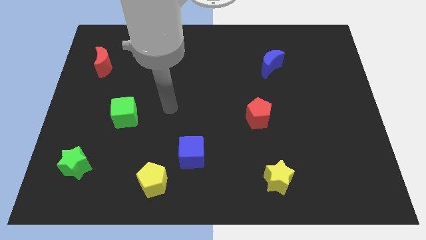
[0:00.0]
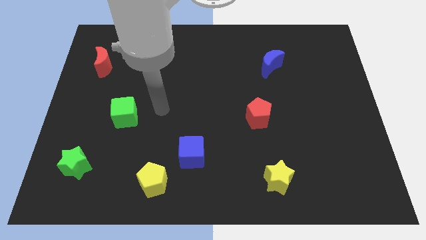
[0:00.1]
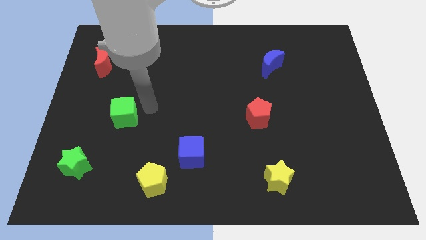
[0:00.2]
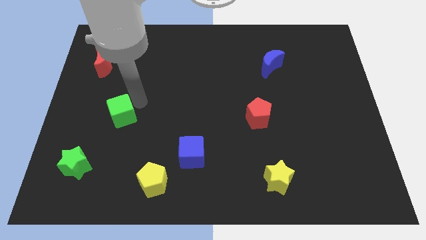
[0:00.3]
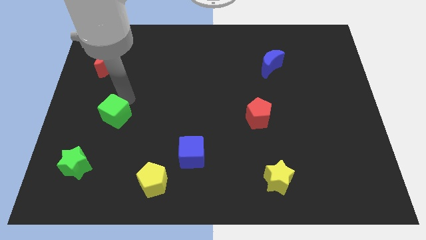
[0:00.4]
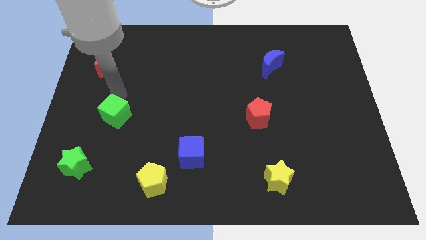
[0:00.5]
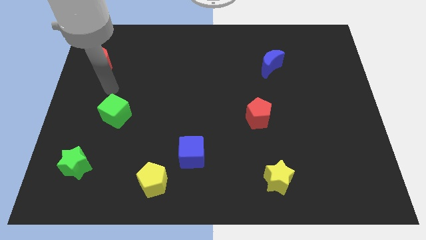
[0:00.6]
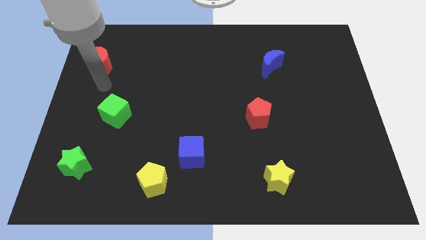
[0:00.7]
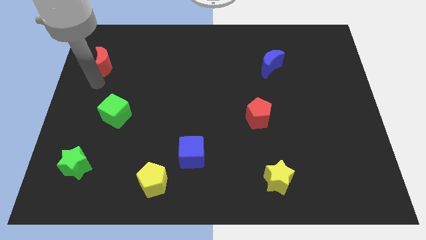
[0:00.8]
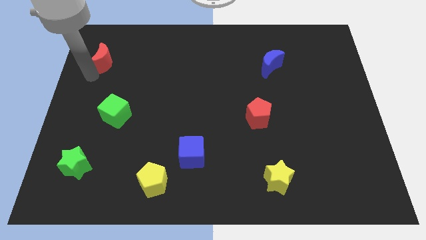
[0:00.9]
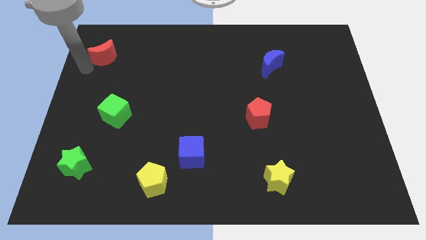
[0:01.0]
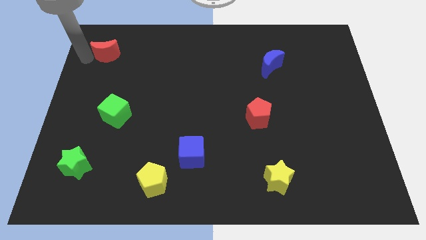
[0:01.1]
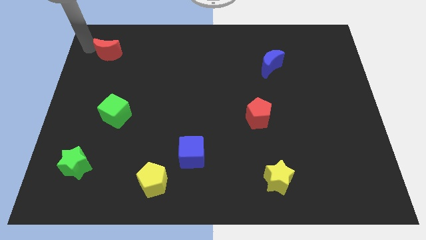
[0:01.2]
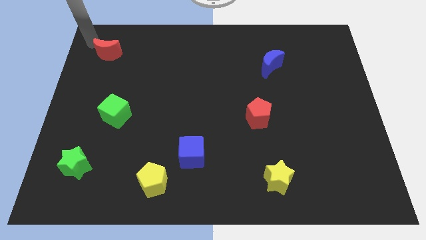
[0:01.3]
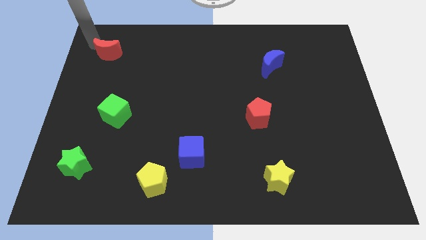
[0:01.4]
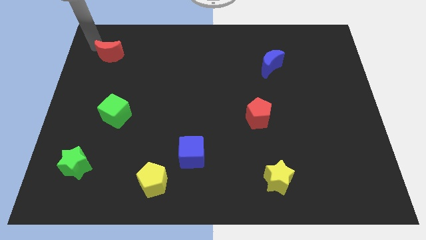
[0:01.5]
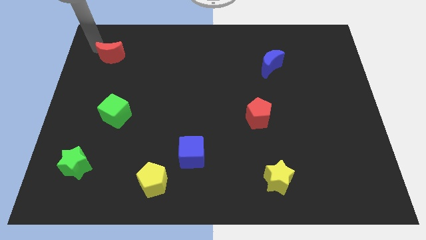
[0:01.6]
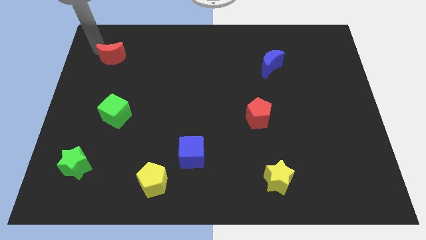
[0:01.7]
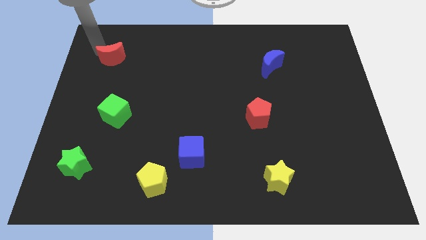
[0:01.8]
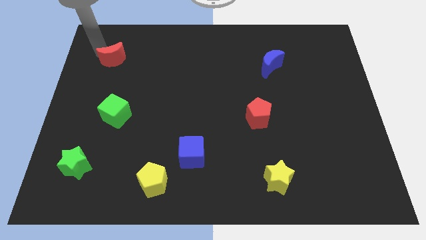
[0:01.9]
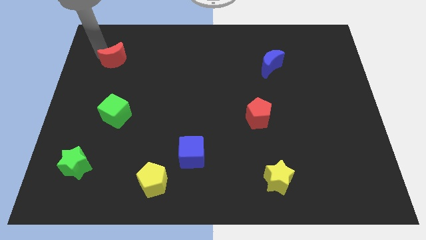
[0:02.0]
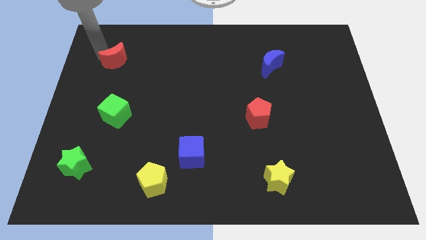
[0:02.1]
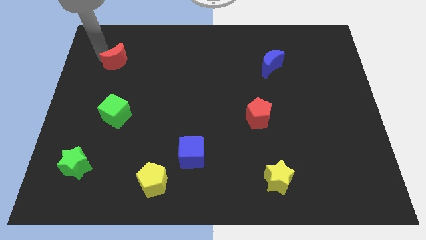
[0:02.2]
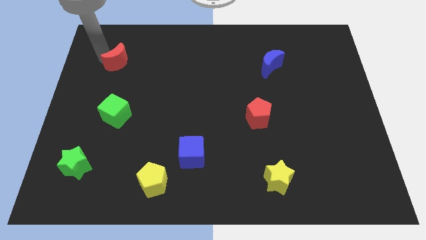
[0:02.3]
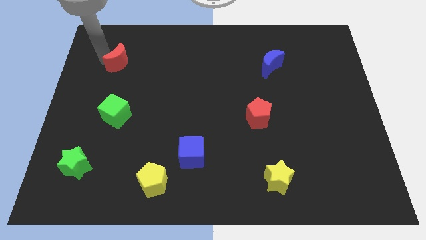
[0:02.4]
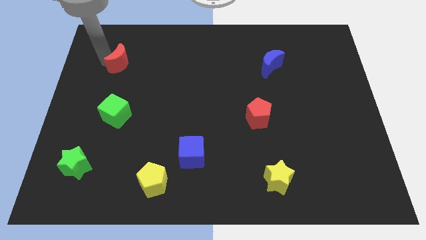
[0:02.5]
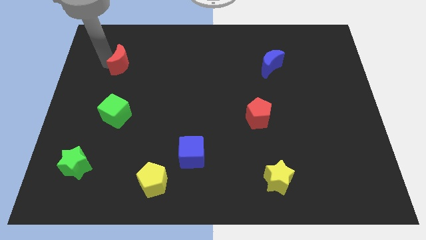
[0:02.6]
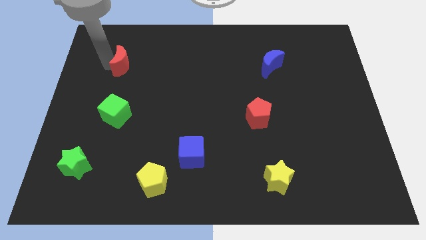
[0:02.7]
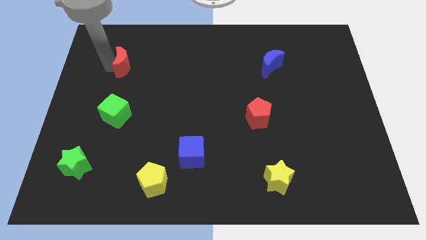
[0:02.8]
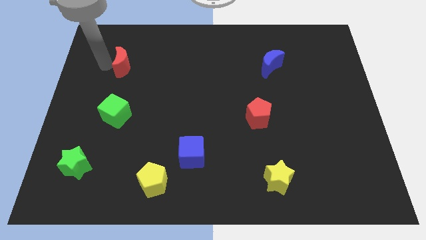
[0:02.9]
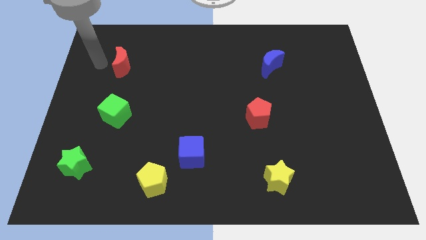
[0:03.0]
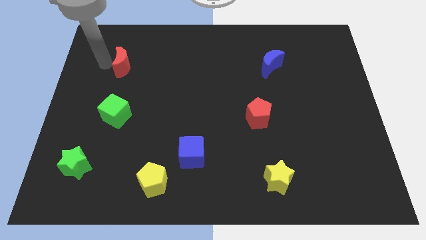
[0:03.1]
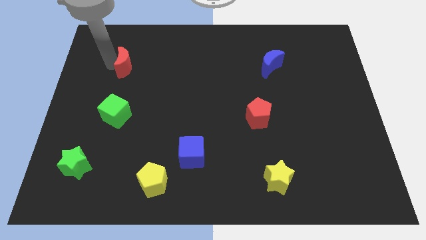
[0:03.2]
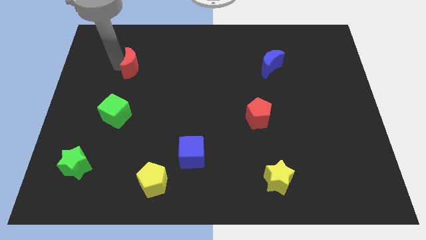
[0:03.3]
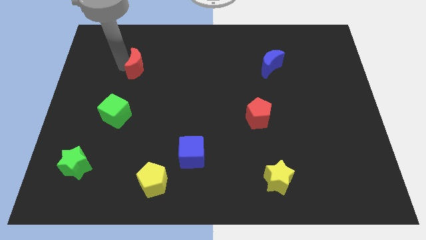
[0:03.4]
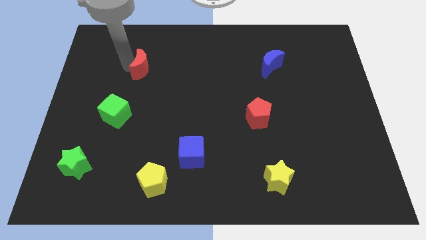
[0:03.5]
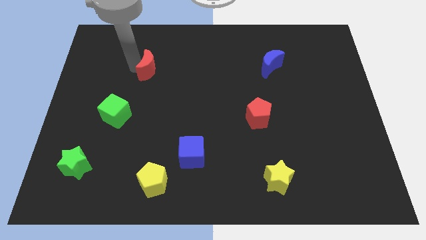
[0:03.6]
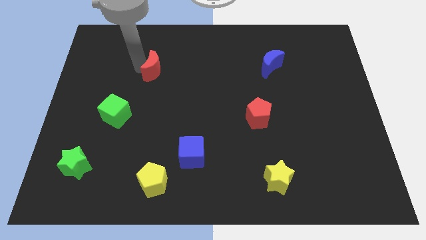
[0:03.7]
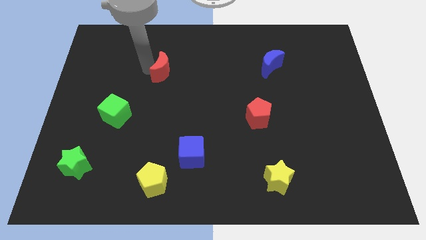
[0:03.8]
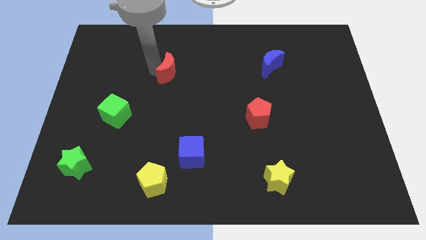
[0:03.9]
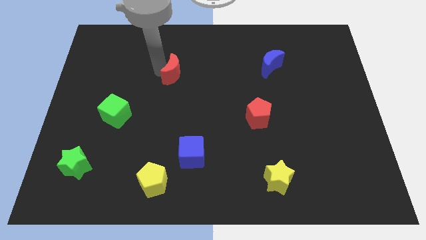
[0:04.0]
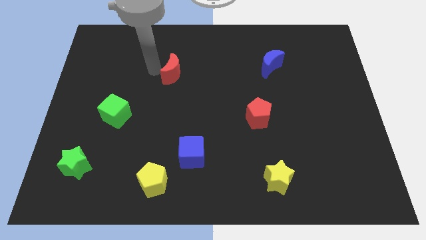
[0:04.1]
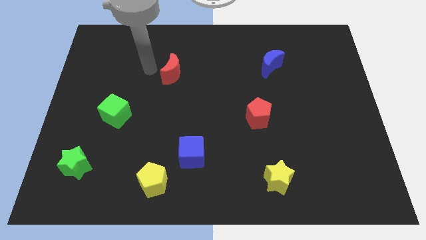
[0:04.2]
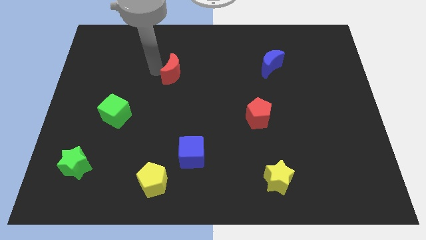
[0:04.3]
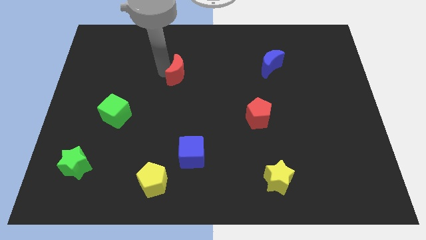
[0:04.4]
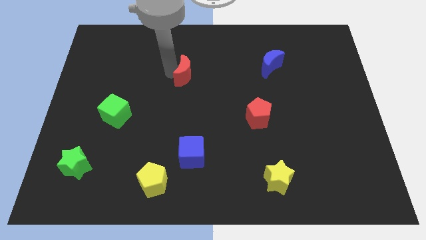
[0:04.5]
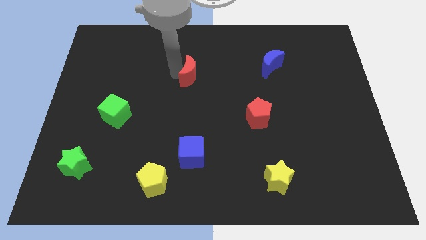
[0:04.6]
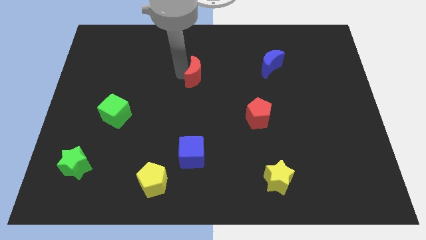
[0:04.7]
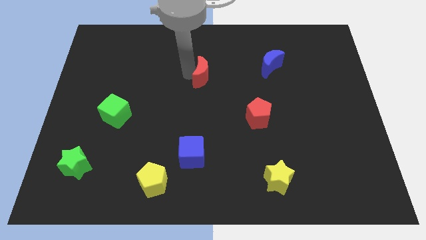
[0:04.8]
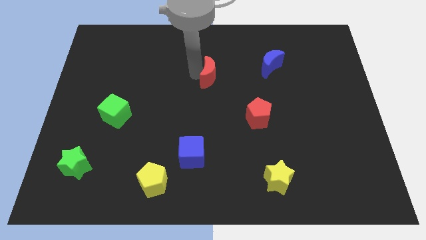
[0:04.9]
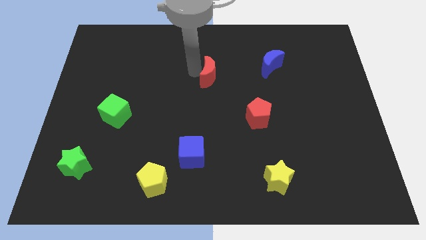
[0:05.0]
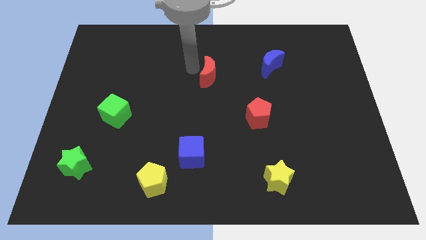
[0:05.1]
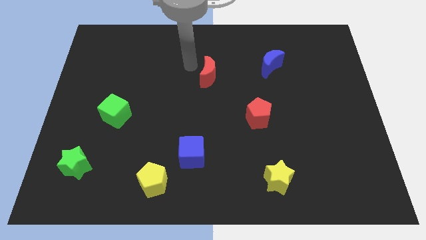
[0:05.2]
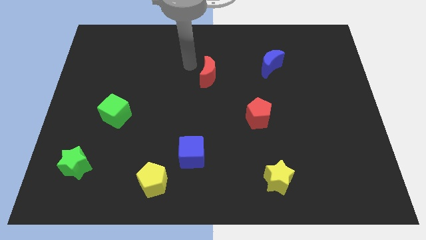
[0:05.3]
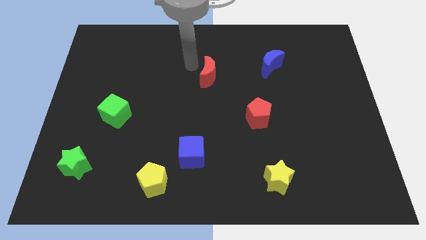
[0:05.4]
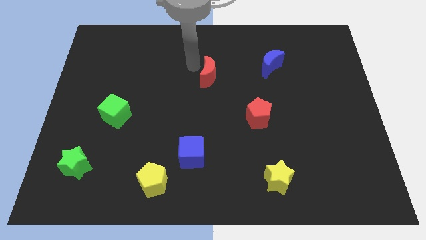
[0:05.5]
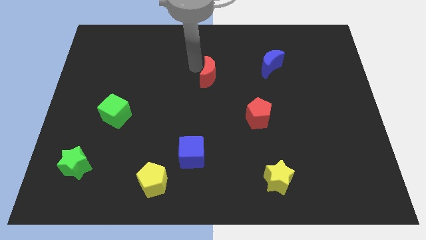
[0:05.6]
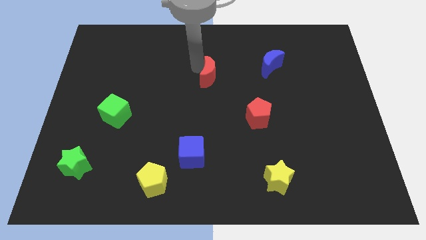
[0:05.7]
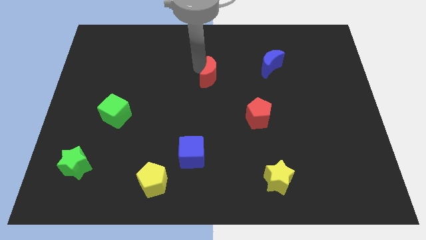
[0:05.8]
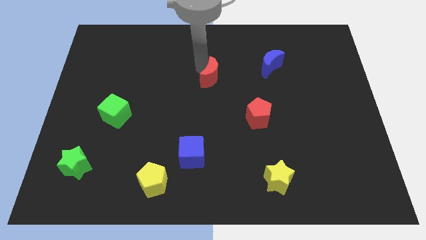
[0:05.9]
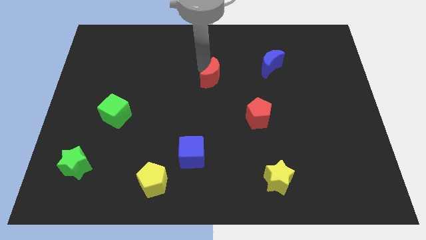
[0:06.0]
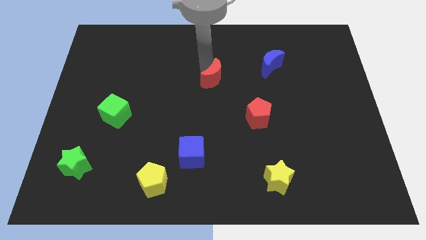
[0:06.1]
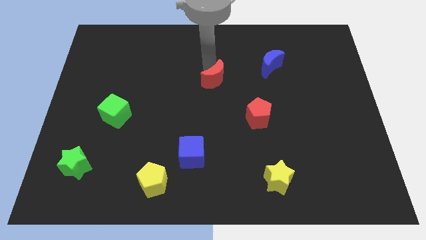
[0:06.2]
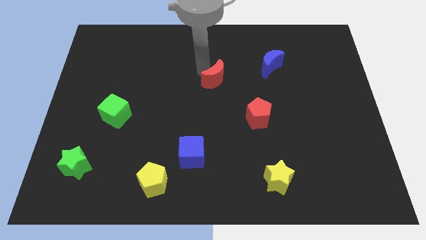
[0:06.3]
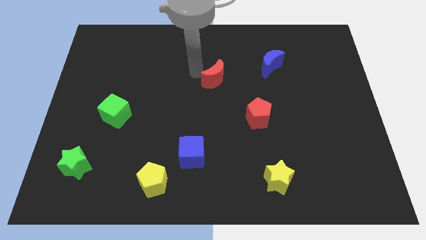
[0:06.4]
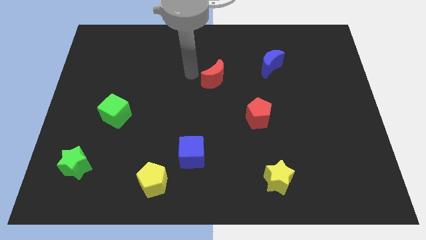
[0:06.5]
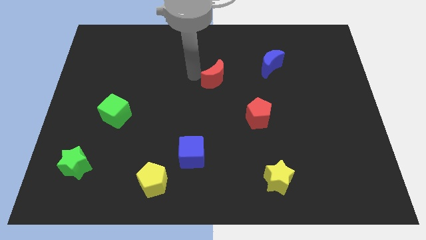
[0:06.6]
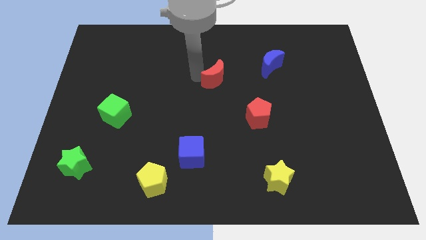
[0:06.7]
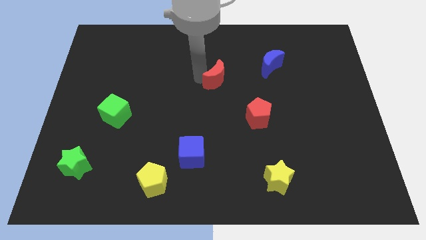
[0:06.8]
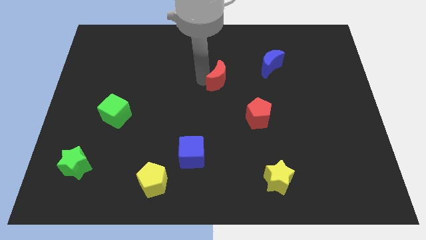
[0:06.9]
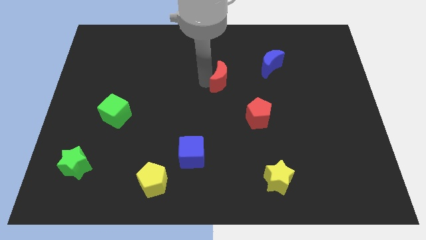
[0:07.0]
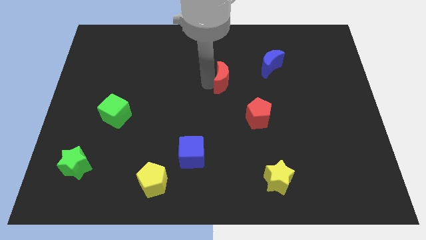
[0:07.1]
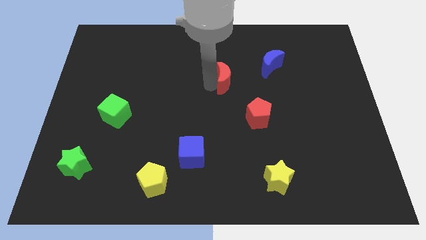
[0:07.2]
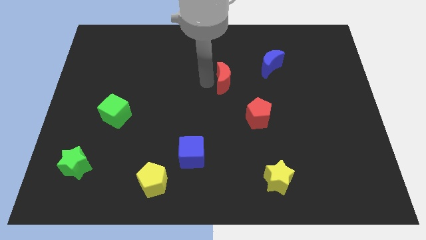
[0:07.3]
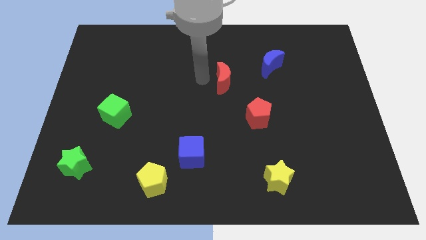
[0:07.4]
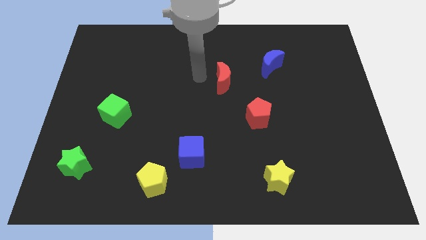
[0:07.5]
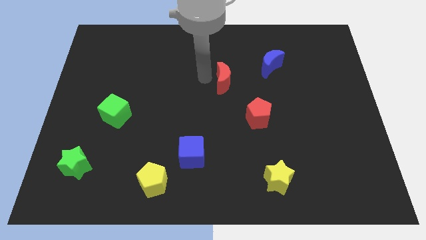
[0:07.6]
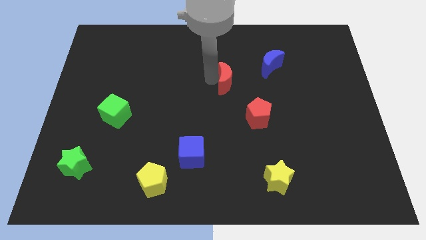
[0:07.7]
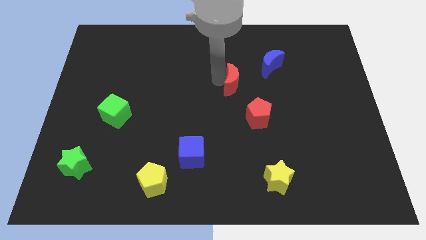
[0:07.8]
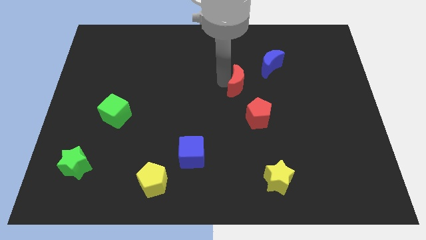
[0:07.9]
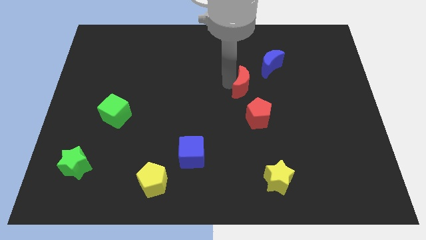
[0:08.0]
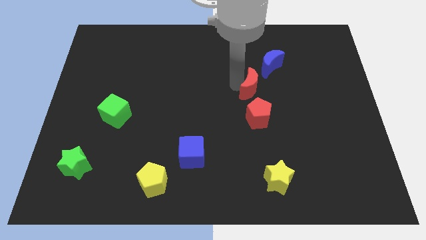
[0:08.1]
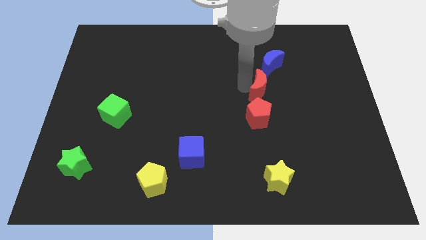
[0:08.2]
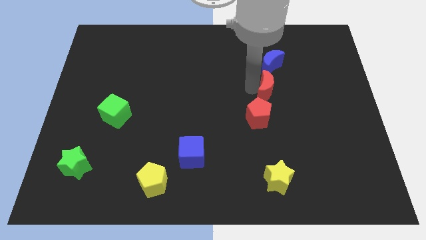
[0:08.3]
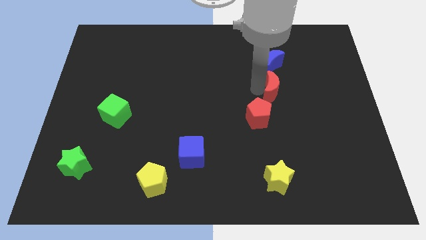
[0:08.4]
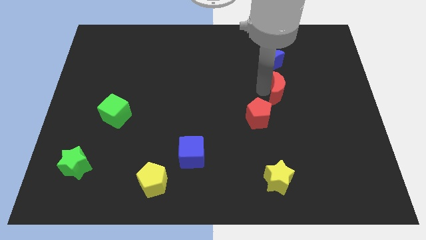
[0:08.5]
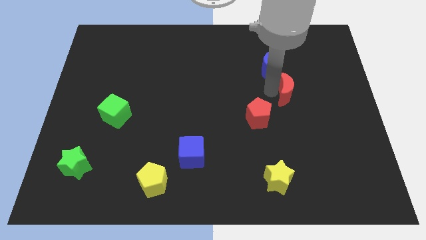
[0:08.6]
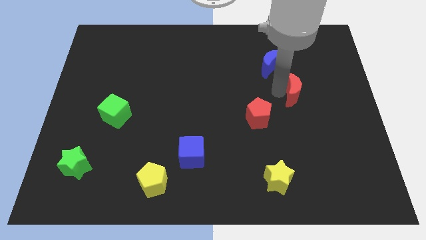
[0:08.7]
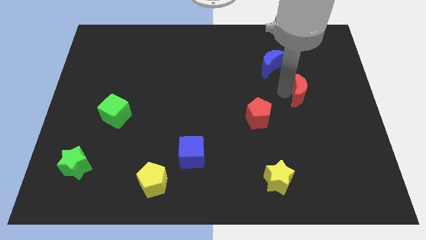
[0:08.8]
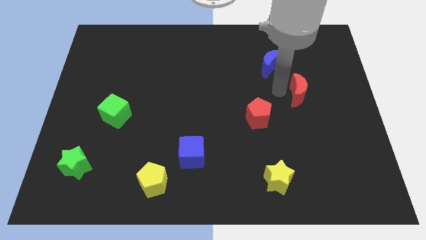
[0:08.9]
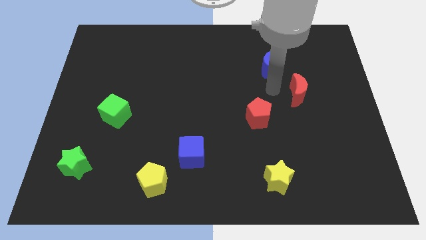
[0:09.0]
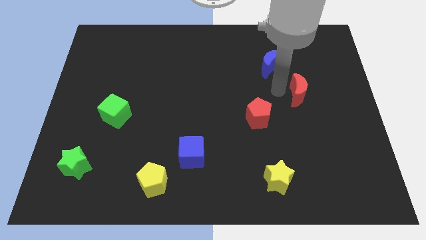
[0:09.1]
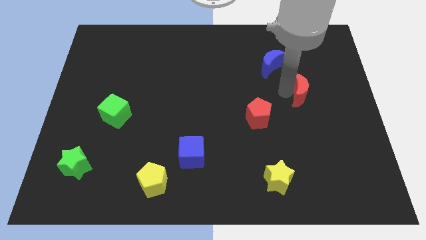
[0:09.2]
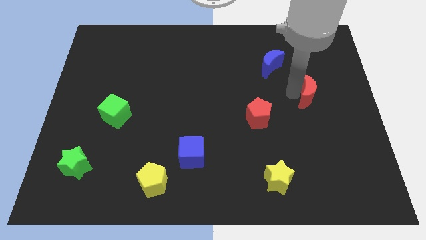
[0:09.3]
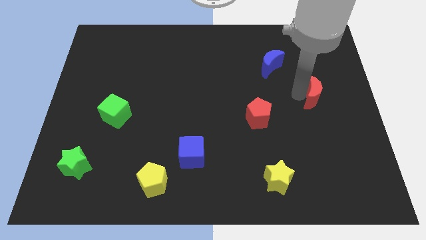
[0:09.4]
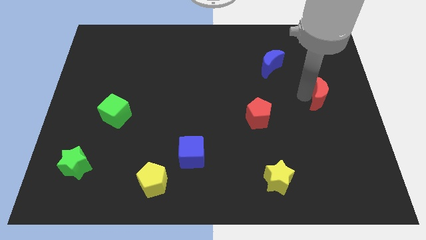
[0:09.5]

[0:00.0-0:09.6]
put the red moon to the right side of the board
